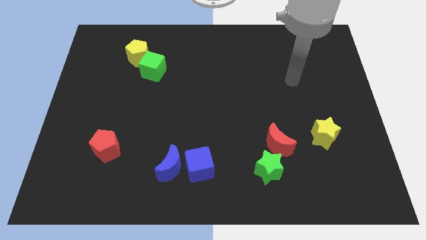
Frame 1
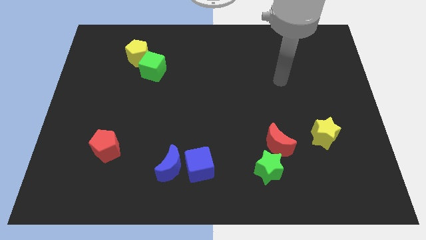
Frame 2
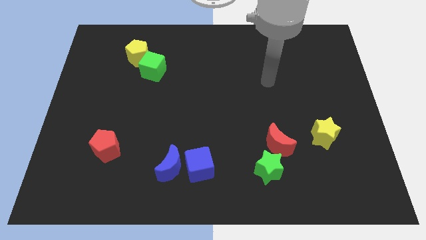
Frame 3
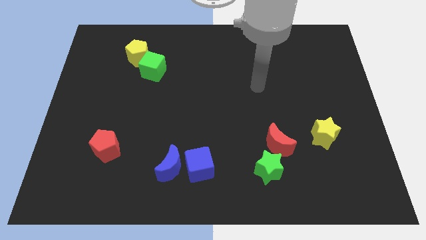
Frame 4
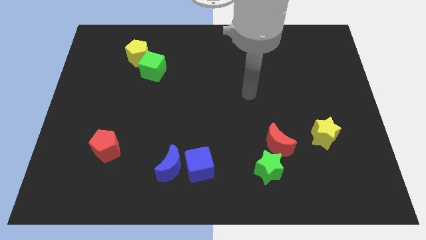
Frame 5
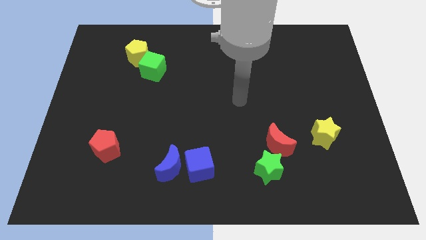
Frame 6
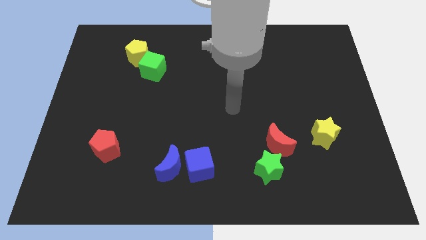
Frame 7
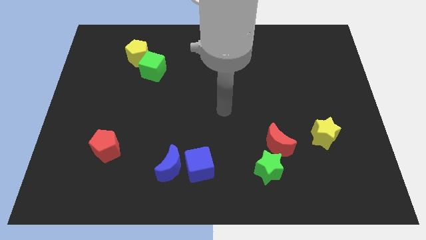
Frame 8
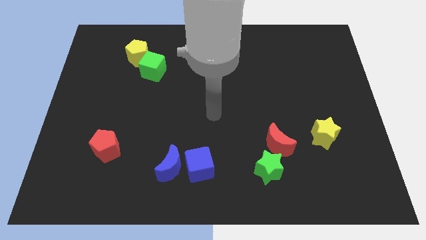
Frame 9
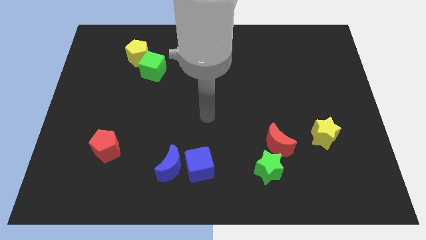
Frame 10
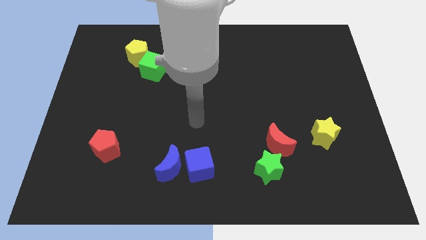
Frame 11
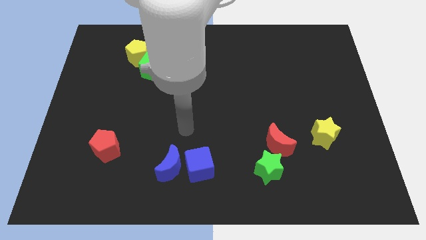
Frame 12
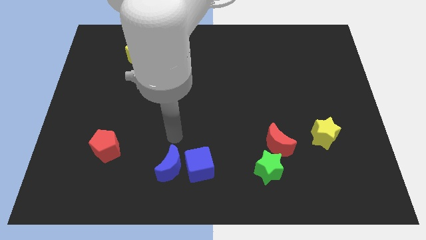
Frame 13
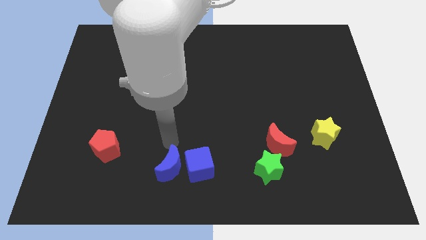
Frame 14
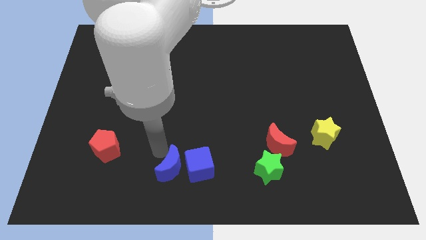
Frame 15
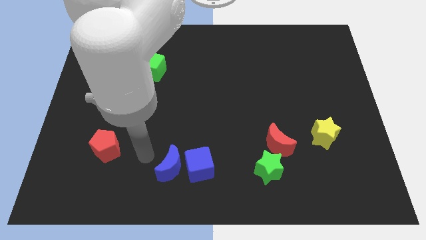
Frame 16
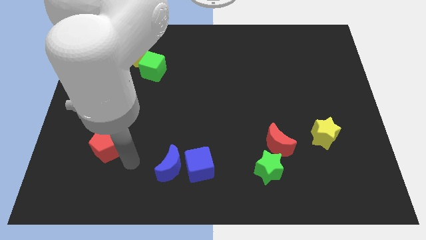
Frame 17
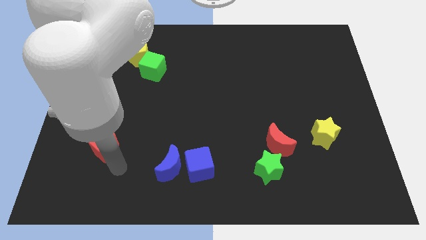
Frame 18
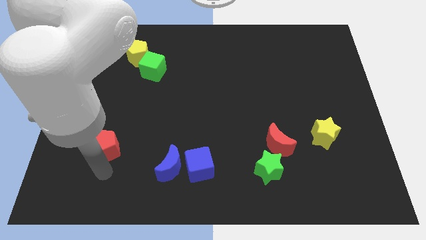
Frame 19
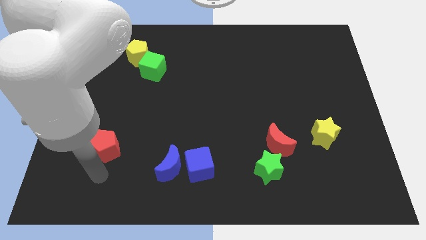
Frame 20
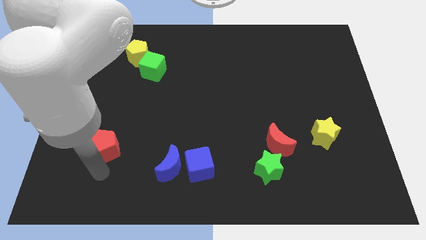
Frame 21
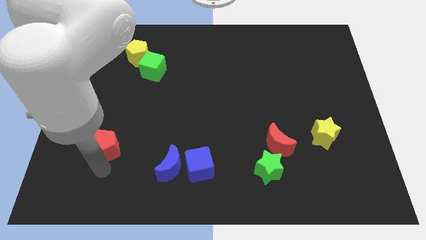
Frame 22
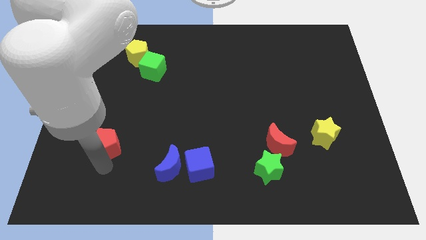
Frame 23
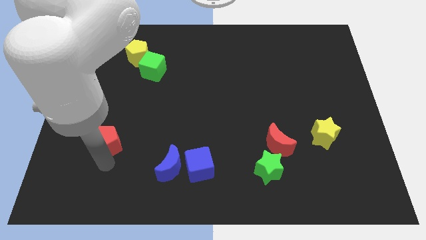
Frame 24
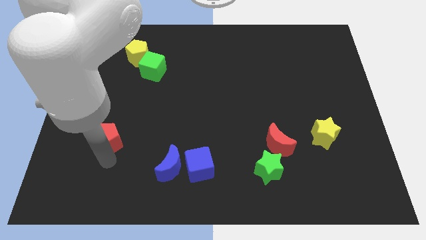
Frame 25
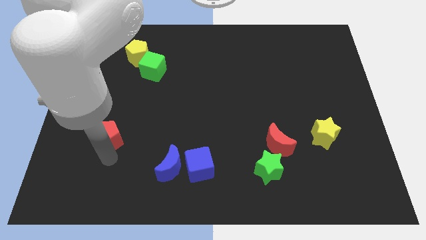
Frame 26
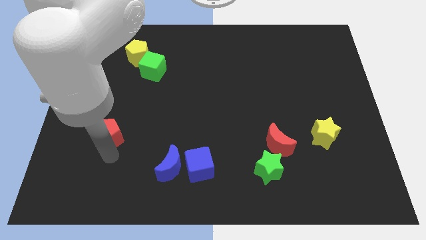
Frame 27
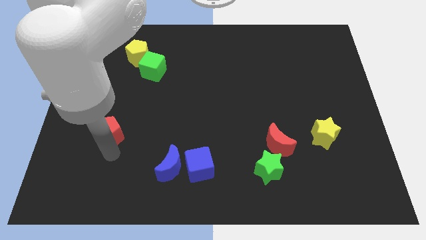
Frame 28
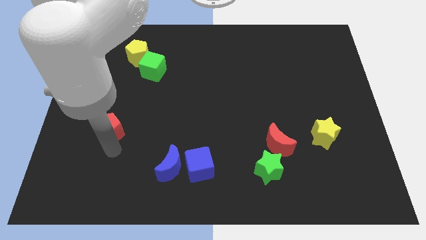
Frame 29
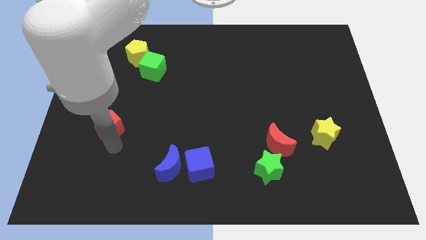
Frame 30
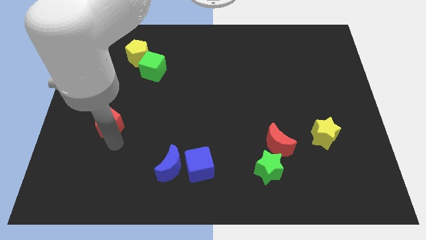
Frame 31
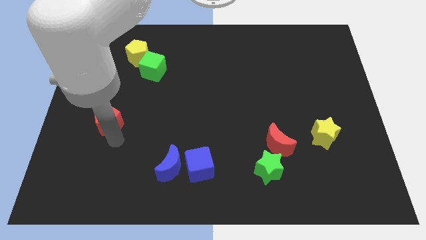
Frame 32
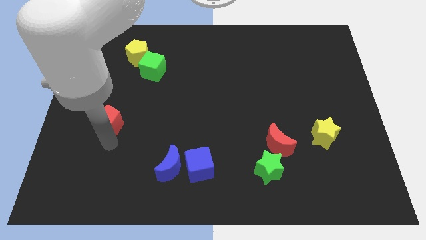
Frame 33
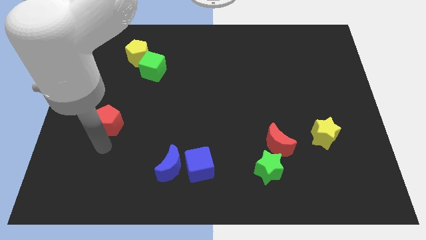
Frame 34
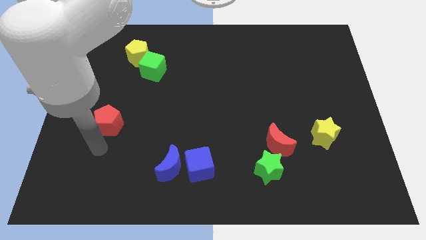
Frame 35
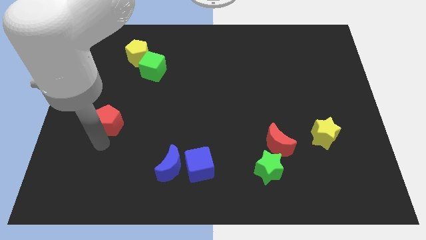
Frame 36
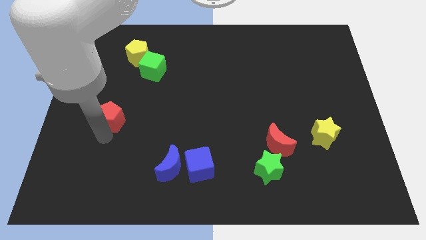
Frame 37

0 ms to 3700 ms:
move the red pentagon somewhat upwards

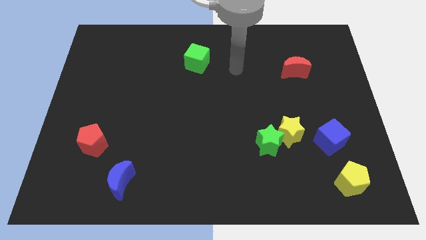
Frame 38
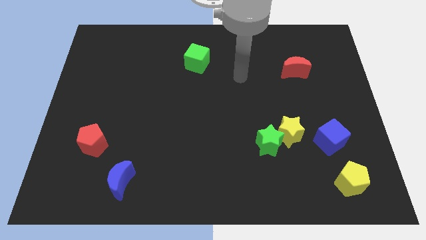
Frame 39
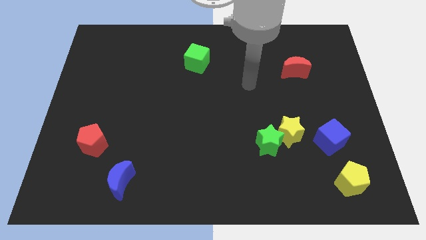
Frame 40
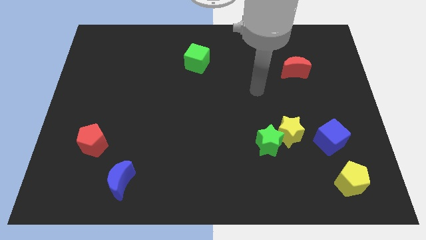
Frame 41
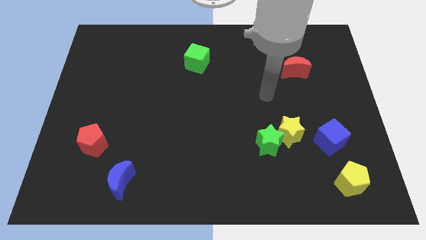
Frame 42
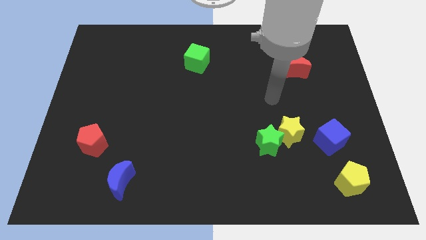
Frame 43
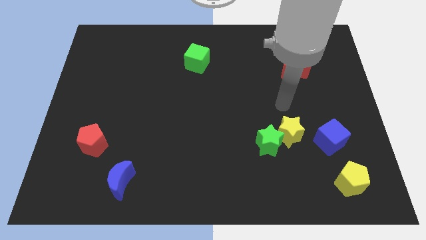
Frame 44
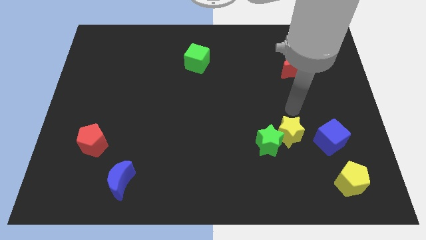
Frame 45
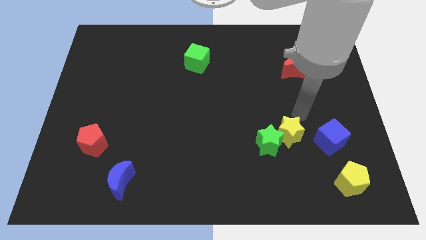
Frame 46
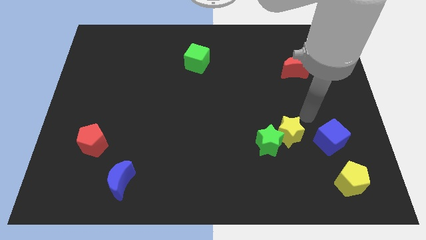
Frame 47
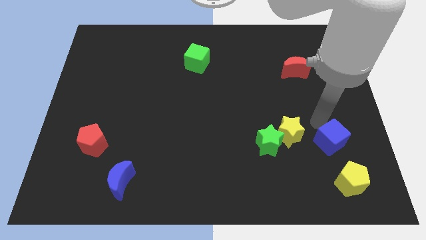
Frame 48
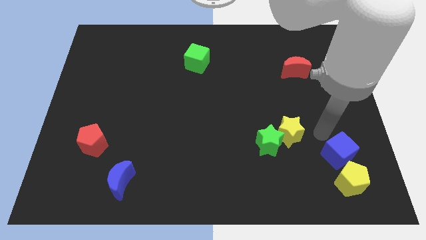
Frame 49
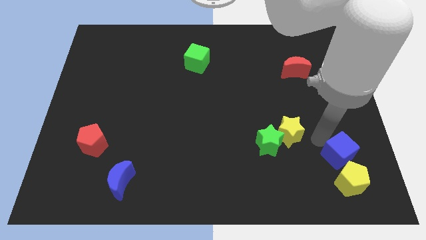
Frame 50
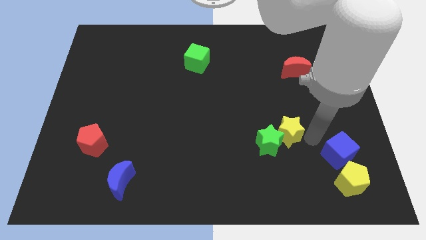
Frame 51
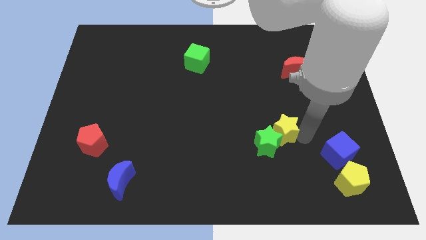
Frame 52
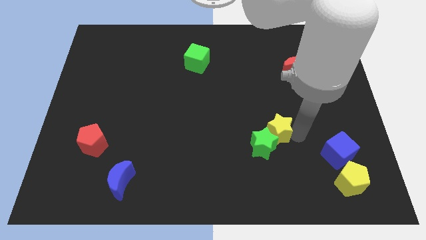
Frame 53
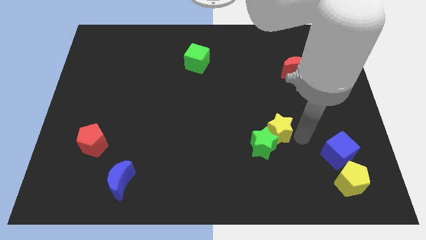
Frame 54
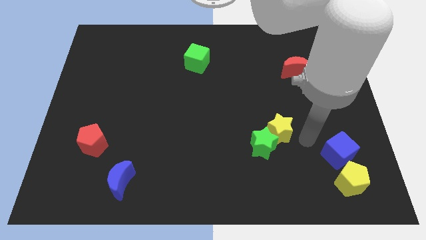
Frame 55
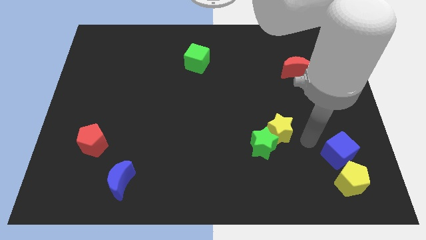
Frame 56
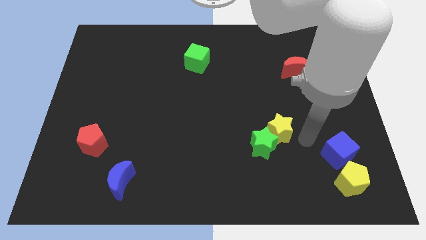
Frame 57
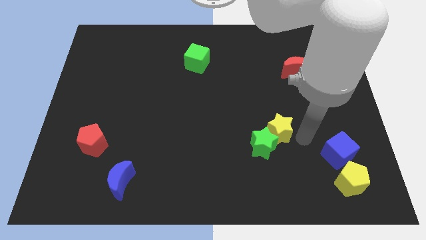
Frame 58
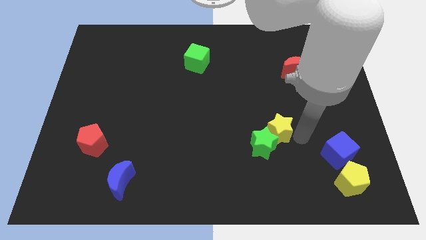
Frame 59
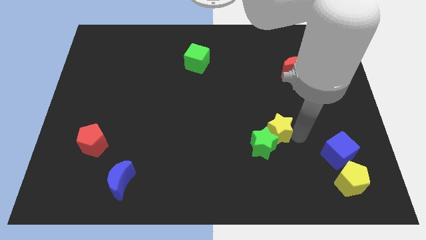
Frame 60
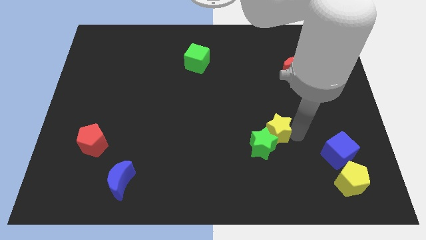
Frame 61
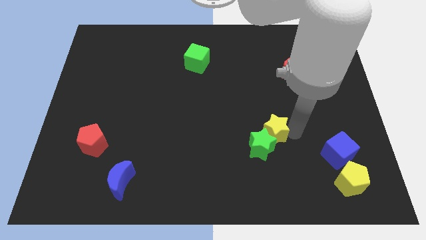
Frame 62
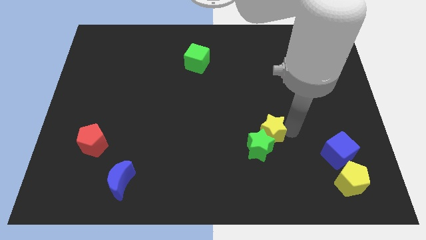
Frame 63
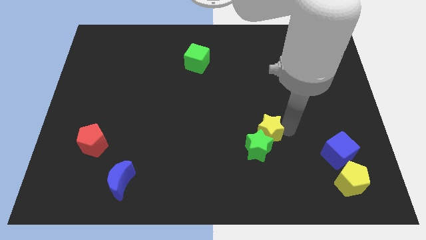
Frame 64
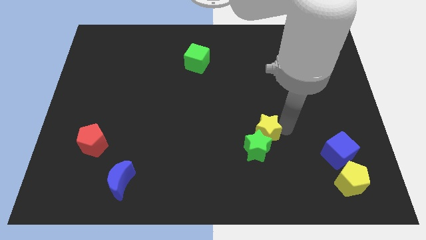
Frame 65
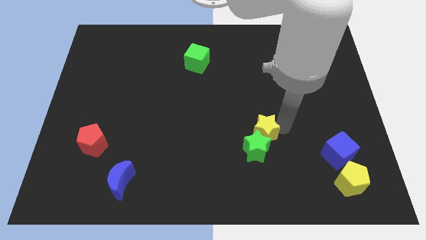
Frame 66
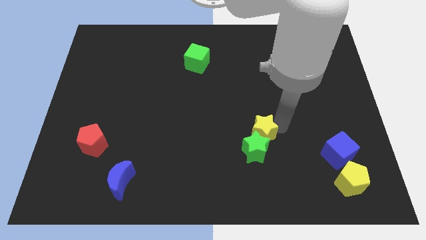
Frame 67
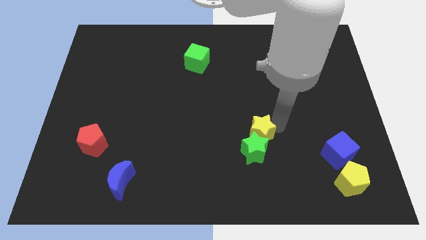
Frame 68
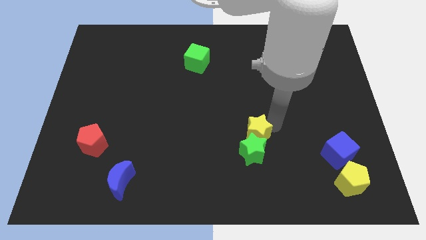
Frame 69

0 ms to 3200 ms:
move the yellow star a little bit to the left

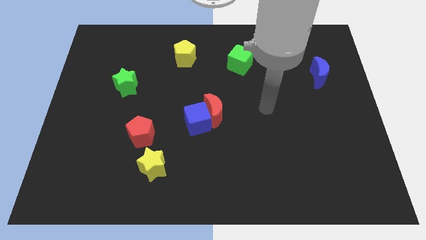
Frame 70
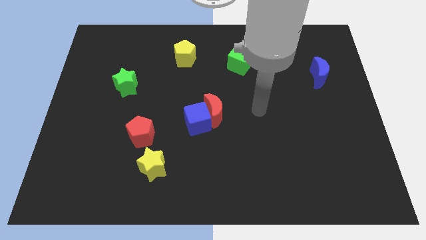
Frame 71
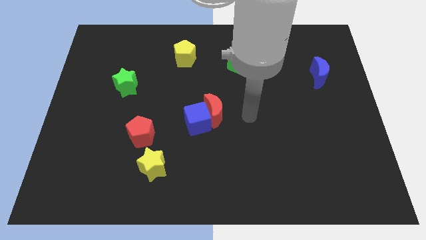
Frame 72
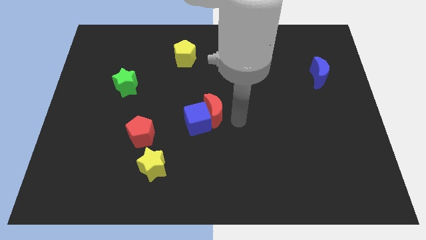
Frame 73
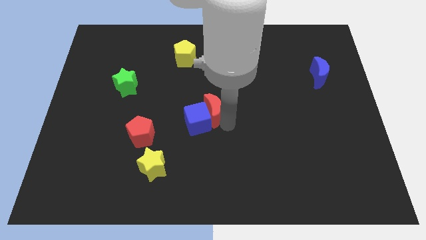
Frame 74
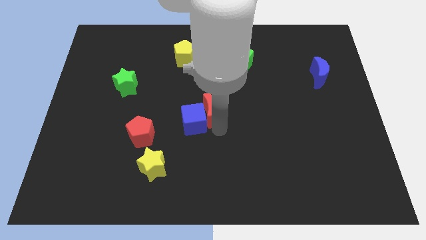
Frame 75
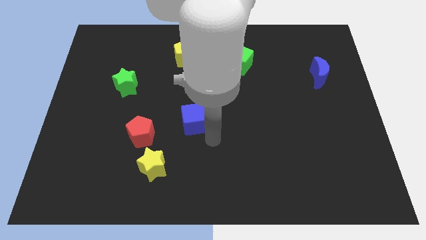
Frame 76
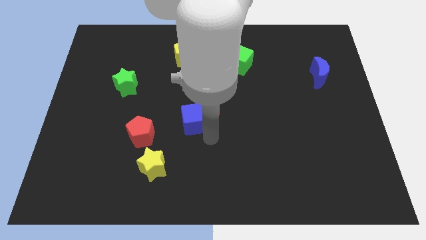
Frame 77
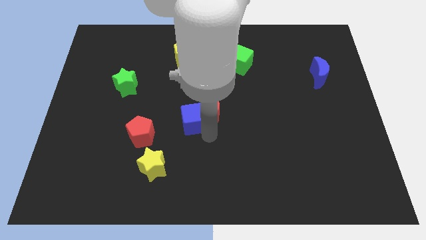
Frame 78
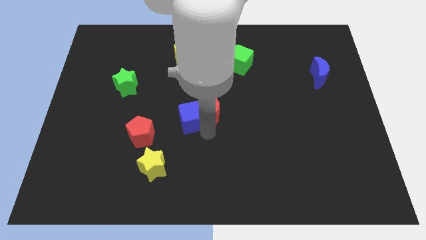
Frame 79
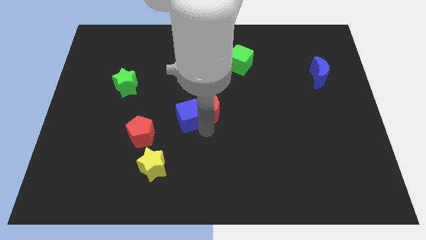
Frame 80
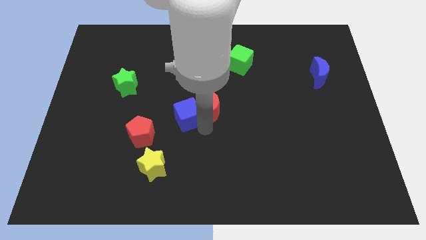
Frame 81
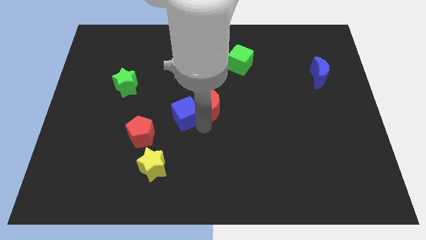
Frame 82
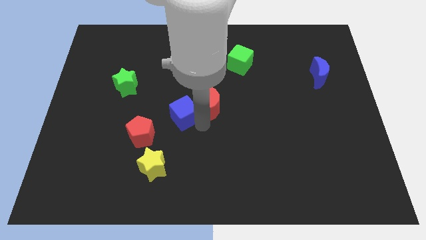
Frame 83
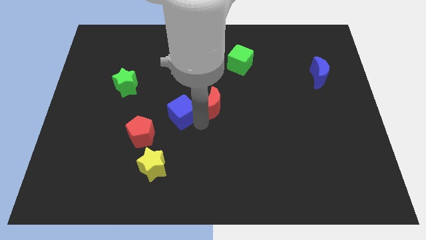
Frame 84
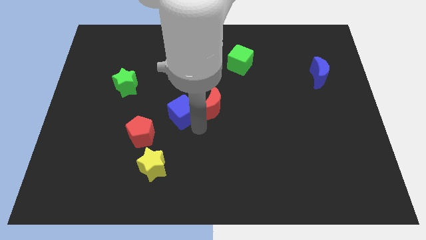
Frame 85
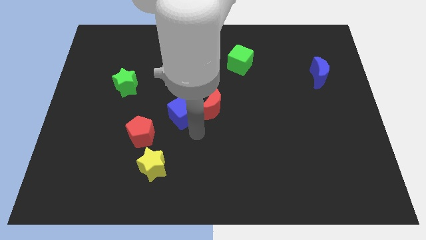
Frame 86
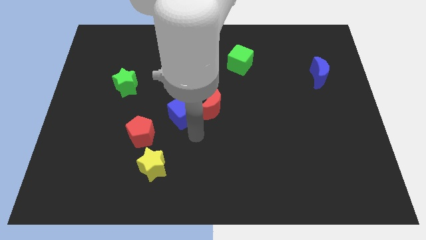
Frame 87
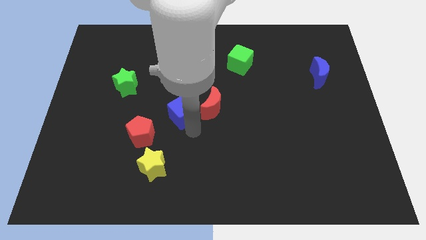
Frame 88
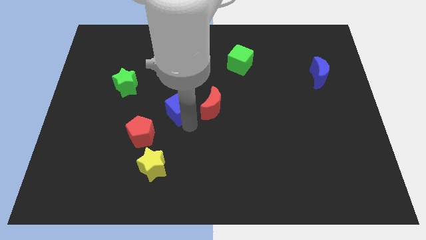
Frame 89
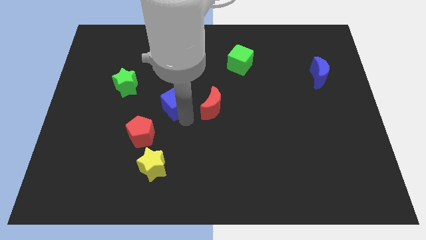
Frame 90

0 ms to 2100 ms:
push the blue cube somewhat up and left
